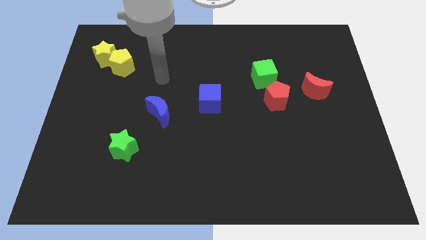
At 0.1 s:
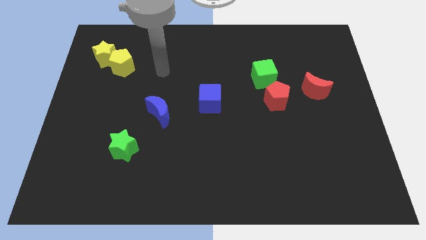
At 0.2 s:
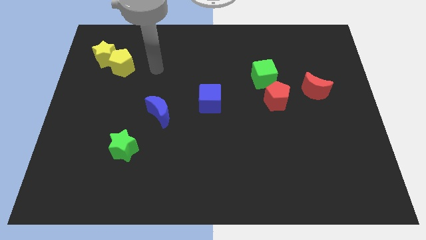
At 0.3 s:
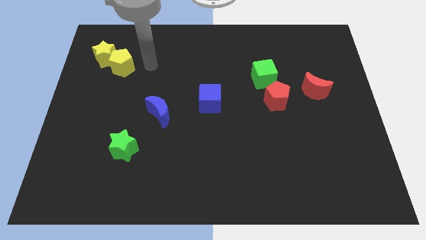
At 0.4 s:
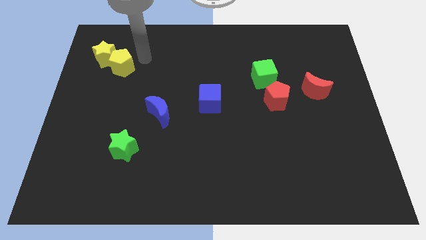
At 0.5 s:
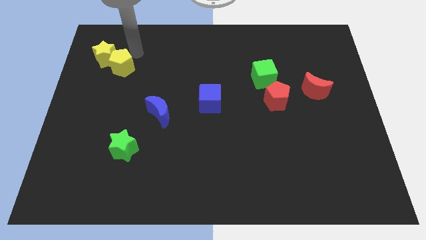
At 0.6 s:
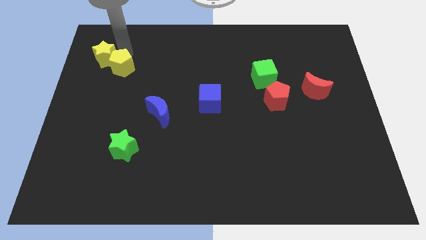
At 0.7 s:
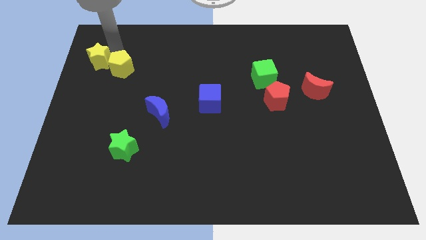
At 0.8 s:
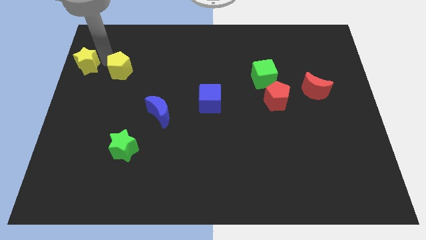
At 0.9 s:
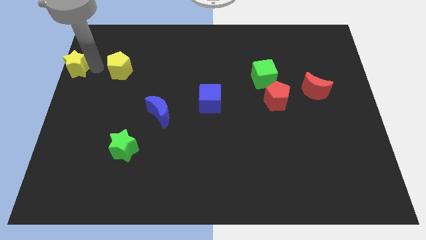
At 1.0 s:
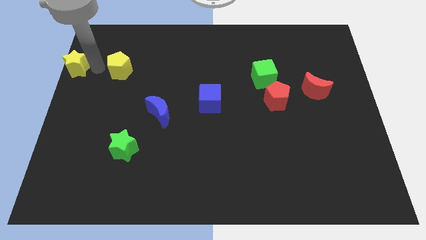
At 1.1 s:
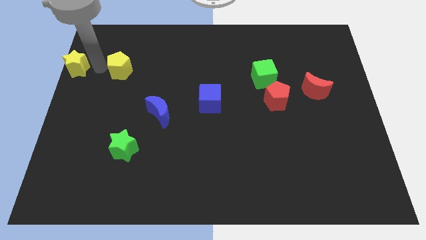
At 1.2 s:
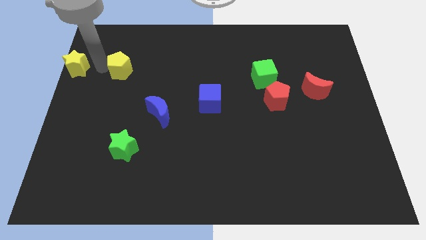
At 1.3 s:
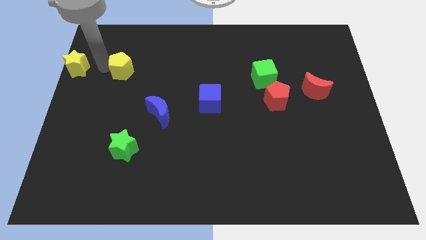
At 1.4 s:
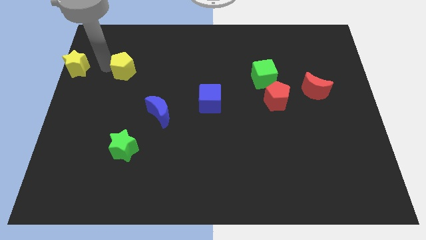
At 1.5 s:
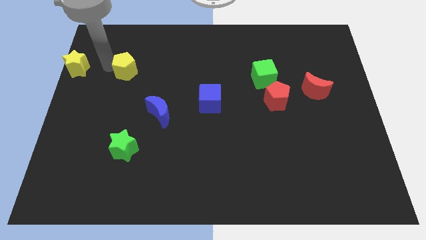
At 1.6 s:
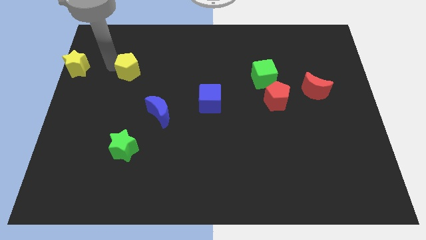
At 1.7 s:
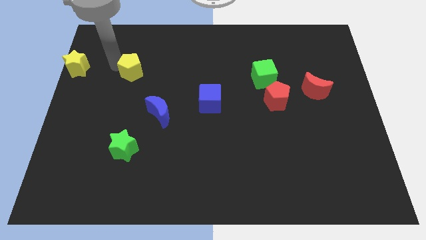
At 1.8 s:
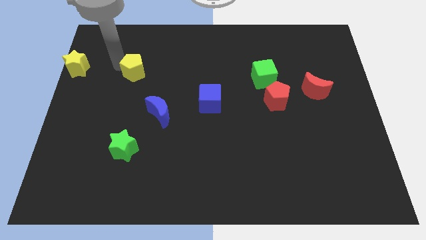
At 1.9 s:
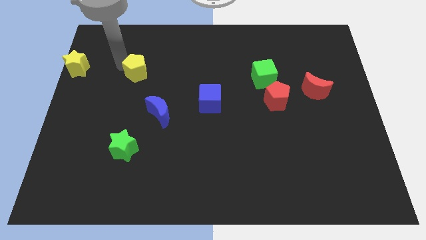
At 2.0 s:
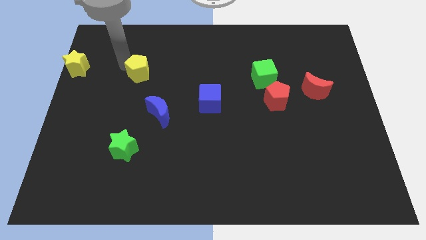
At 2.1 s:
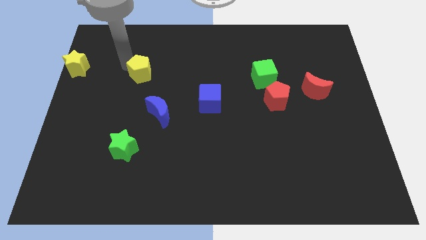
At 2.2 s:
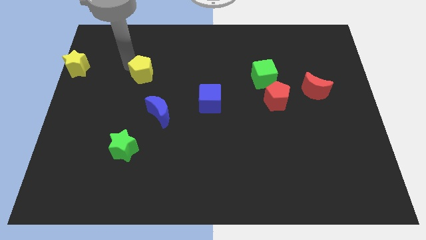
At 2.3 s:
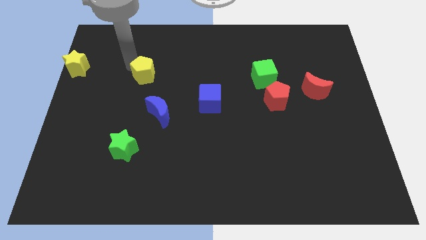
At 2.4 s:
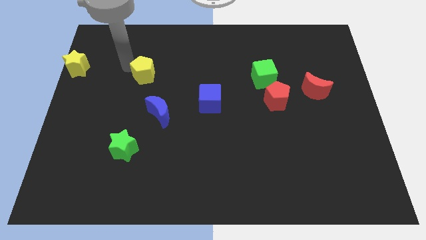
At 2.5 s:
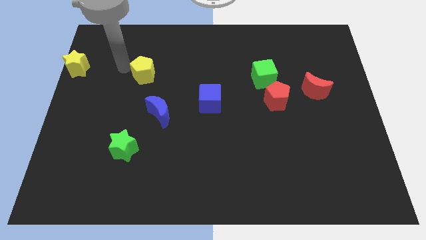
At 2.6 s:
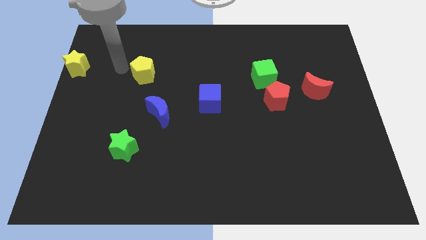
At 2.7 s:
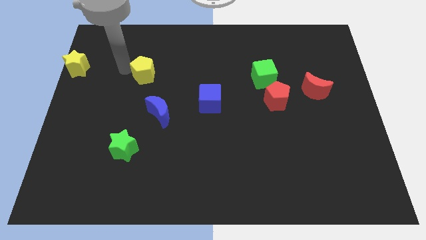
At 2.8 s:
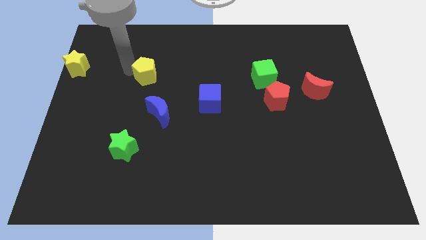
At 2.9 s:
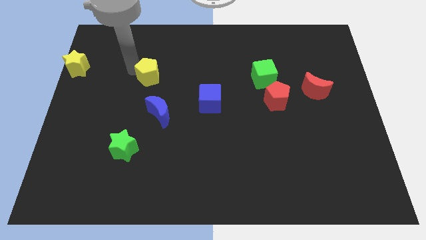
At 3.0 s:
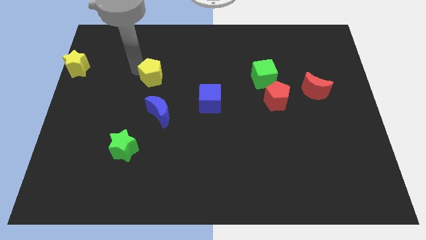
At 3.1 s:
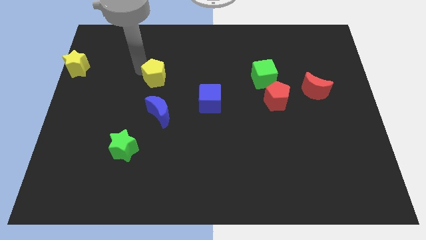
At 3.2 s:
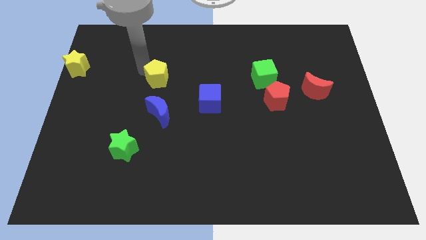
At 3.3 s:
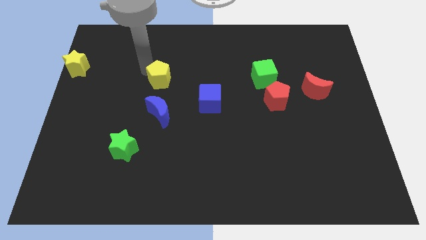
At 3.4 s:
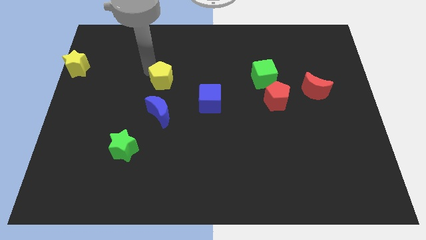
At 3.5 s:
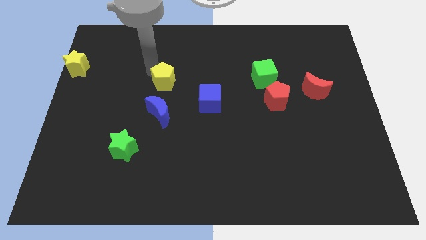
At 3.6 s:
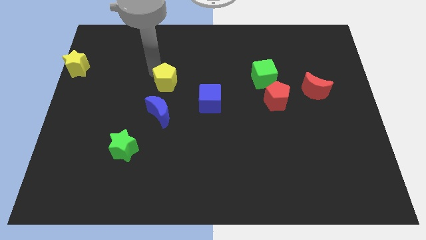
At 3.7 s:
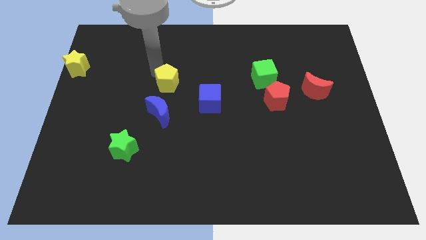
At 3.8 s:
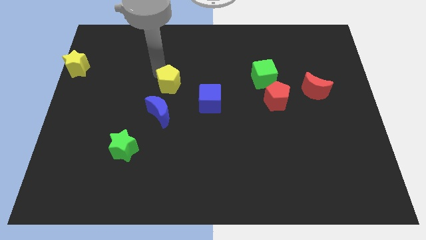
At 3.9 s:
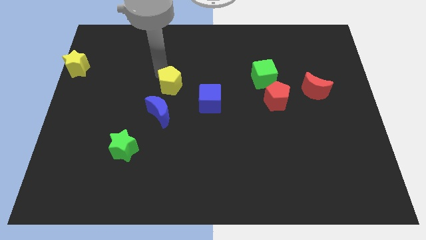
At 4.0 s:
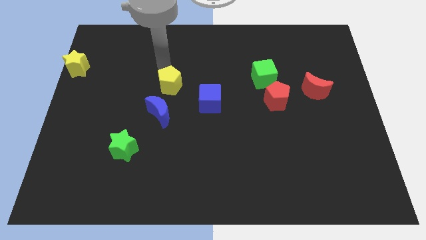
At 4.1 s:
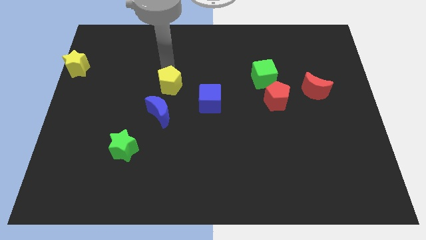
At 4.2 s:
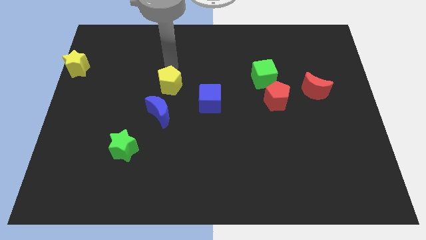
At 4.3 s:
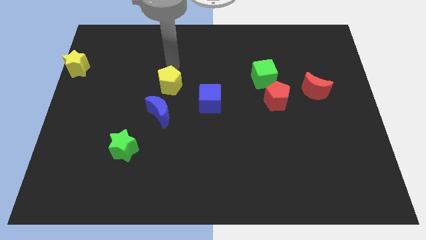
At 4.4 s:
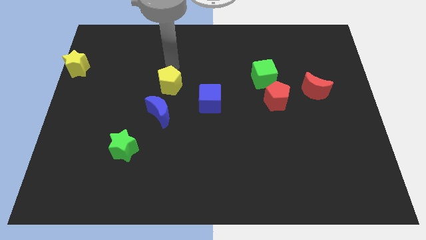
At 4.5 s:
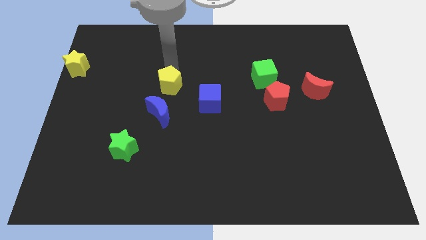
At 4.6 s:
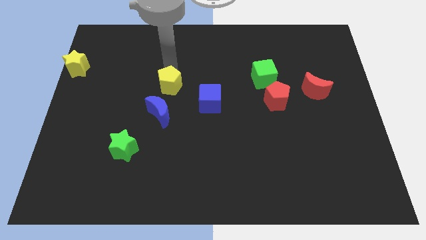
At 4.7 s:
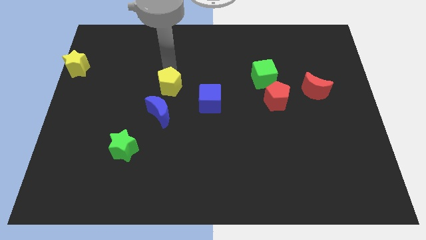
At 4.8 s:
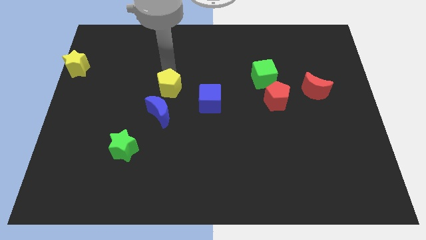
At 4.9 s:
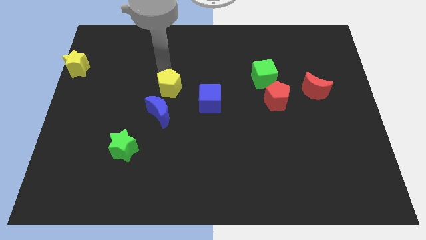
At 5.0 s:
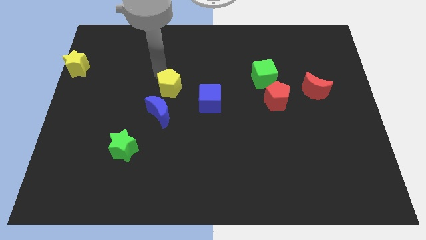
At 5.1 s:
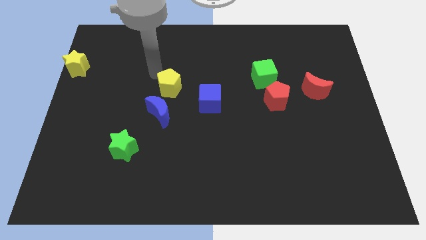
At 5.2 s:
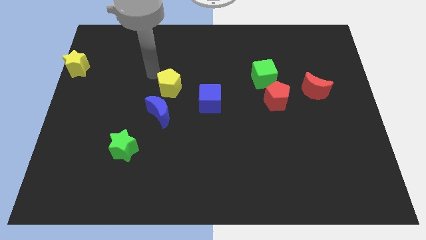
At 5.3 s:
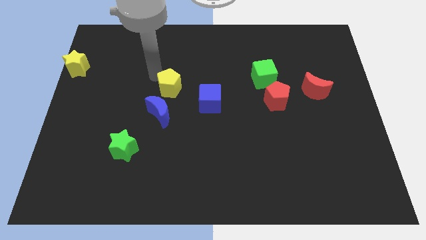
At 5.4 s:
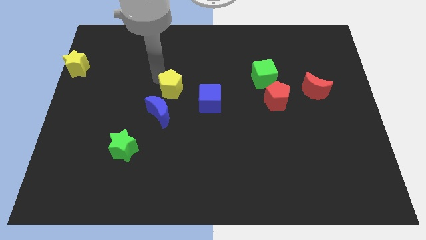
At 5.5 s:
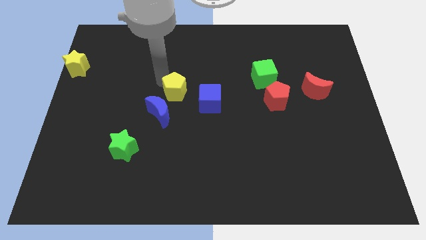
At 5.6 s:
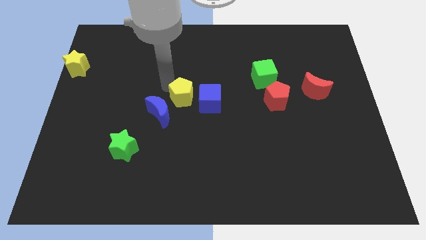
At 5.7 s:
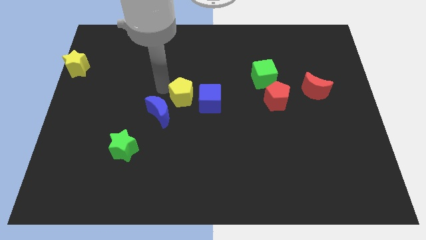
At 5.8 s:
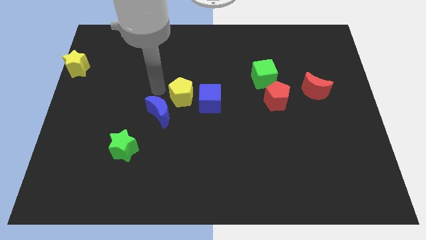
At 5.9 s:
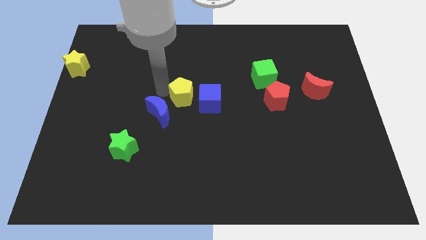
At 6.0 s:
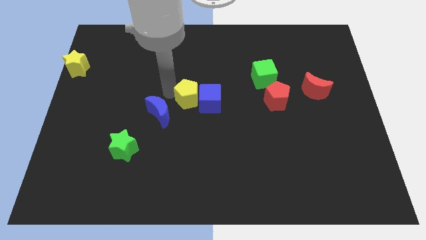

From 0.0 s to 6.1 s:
slide the yellow pentagon close to the blue cube
